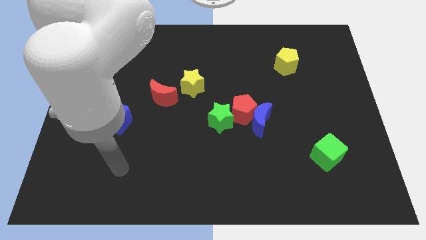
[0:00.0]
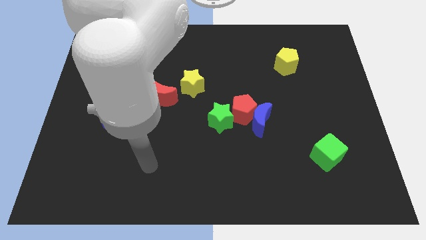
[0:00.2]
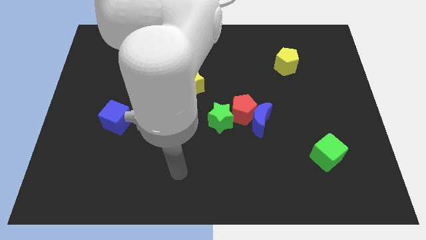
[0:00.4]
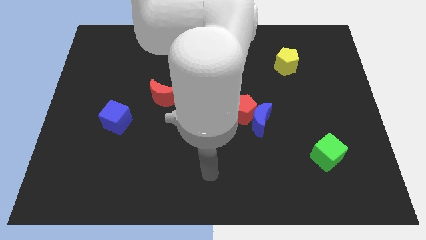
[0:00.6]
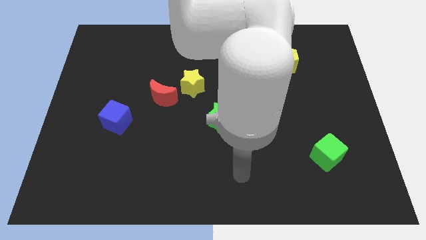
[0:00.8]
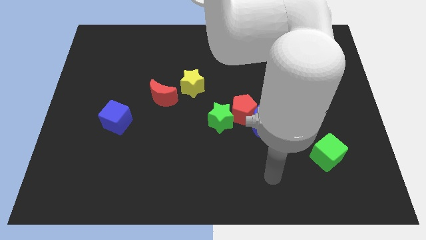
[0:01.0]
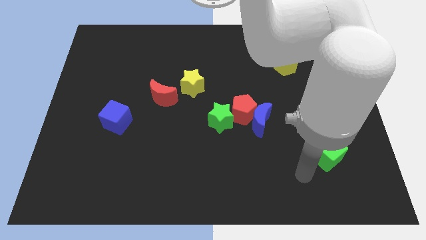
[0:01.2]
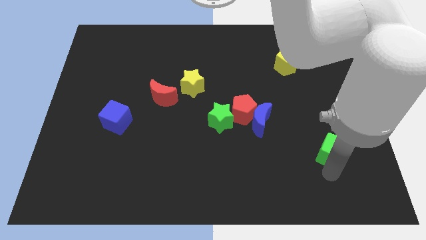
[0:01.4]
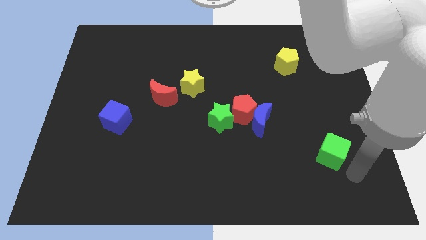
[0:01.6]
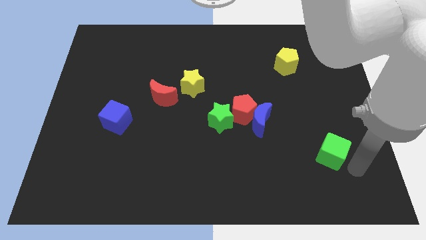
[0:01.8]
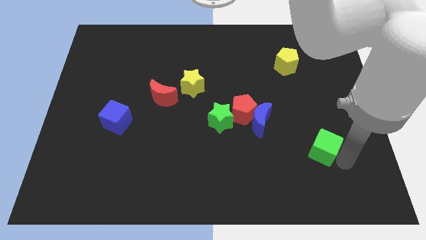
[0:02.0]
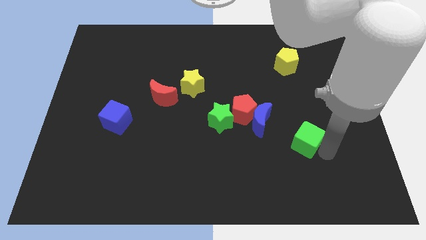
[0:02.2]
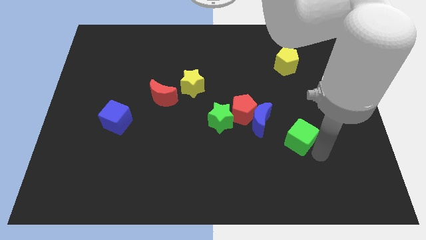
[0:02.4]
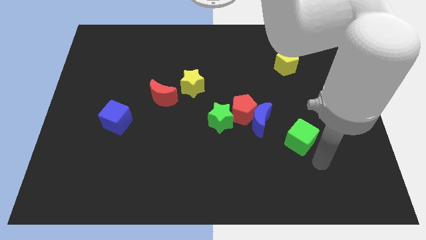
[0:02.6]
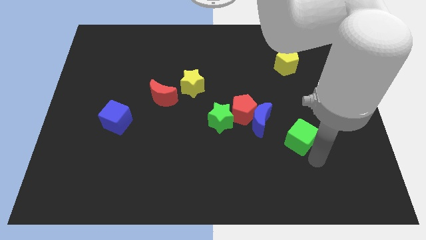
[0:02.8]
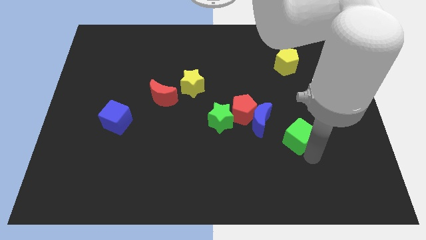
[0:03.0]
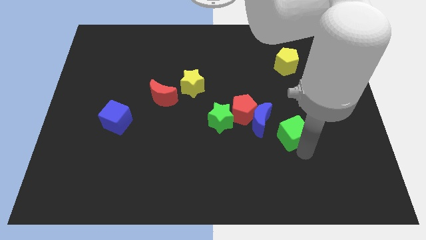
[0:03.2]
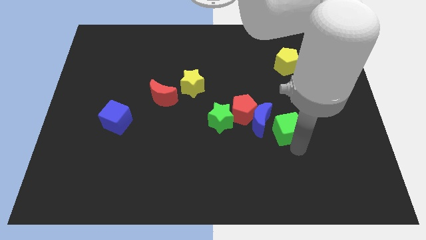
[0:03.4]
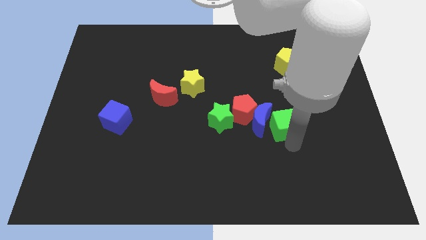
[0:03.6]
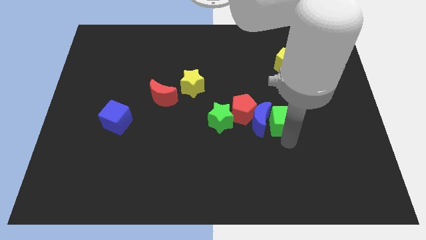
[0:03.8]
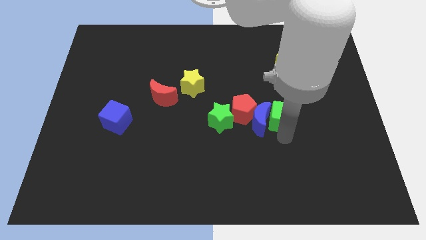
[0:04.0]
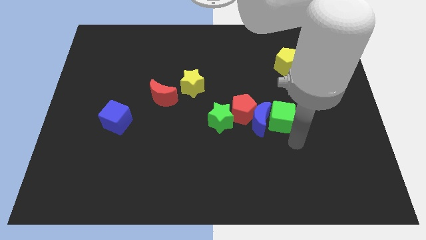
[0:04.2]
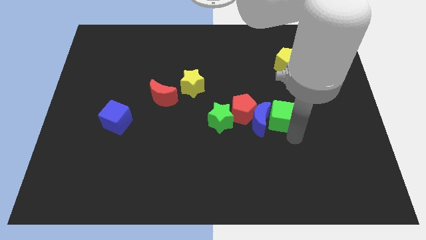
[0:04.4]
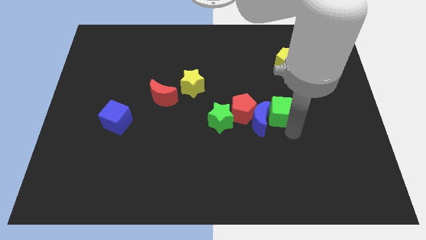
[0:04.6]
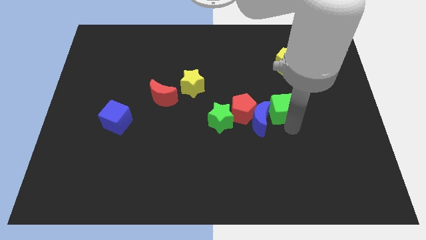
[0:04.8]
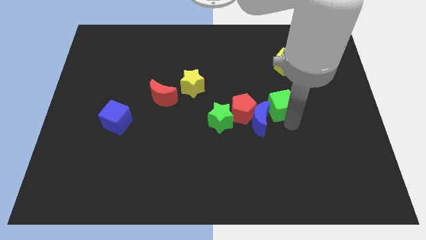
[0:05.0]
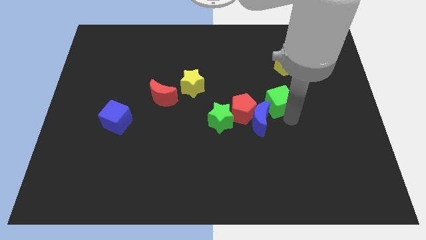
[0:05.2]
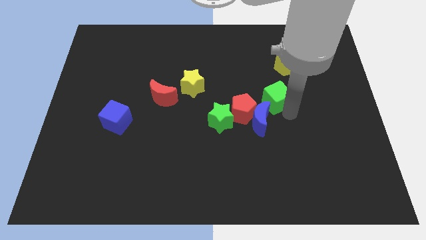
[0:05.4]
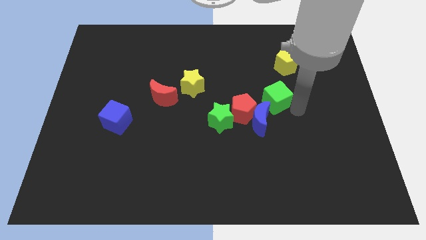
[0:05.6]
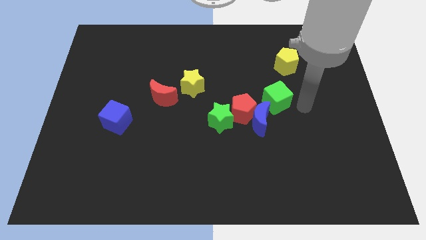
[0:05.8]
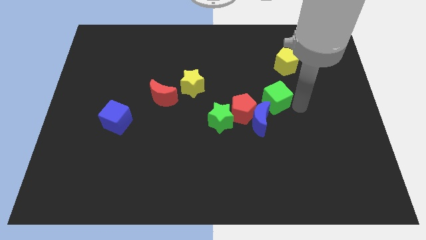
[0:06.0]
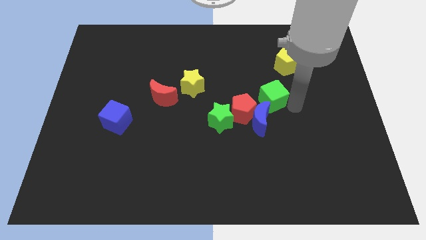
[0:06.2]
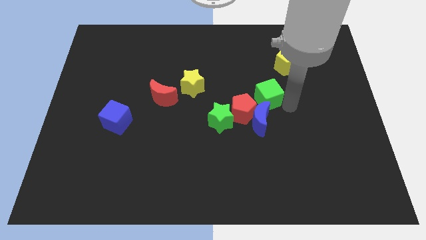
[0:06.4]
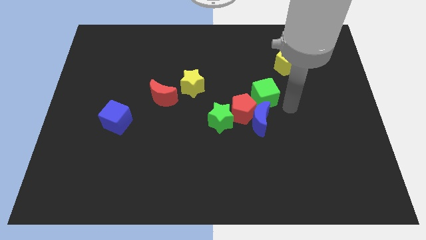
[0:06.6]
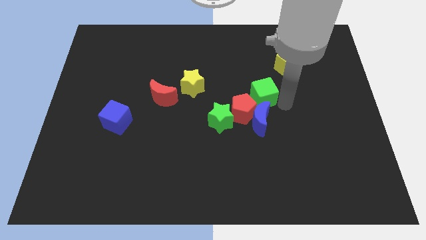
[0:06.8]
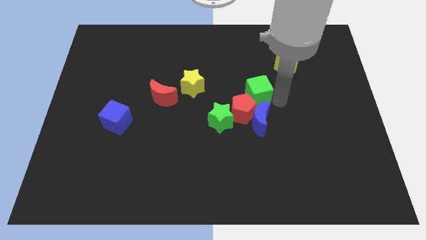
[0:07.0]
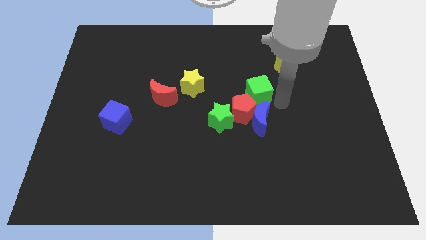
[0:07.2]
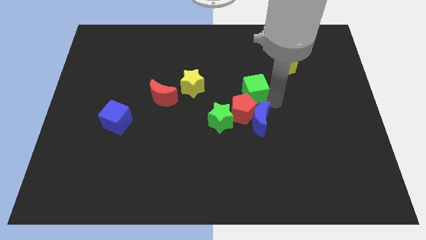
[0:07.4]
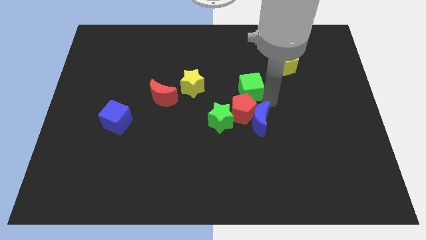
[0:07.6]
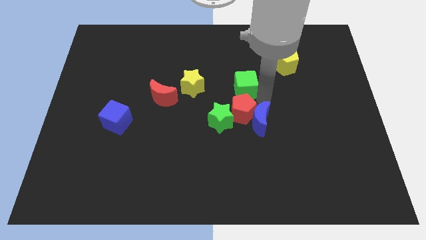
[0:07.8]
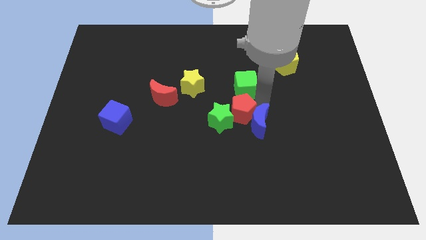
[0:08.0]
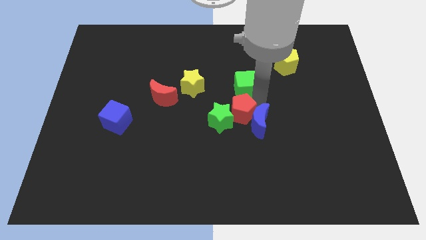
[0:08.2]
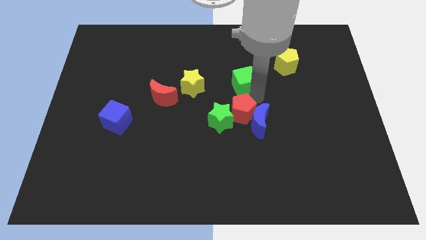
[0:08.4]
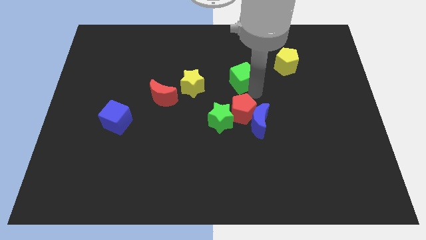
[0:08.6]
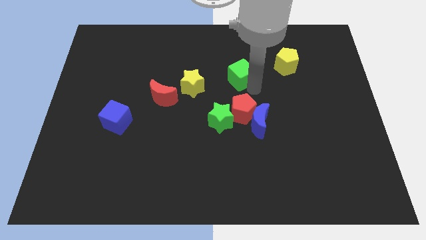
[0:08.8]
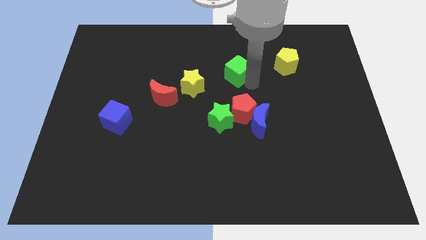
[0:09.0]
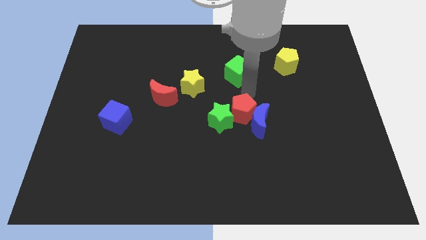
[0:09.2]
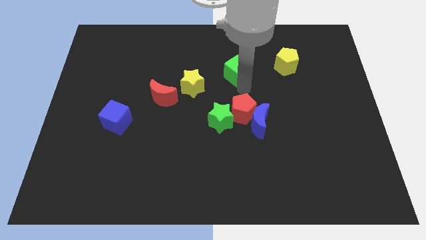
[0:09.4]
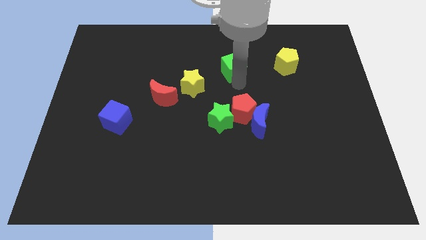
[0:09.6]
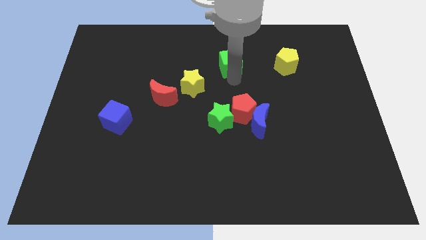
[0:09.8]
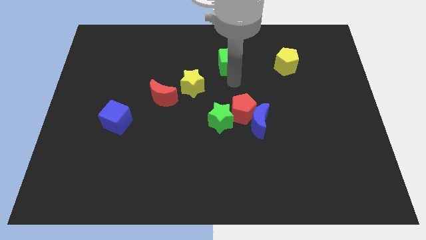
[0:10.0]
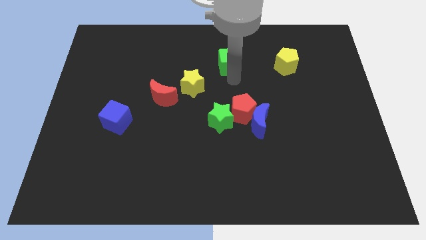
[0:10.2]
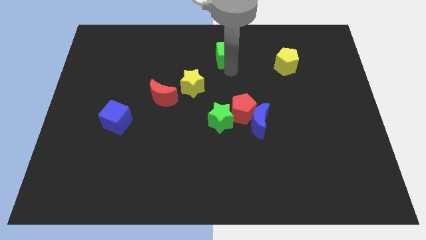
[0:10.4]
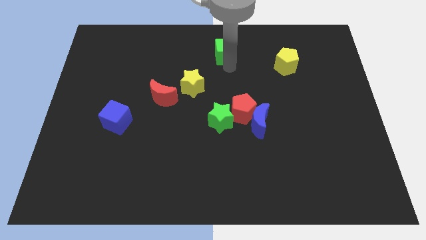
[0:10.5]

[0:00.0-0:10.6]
push the green cube to the towards your base

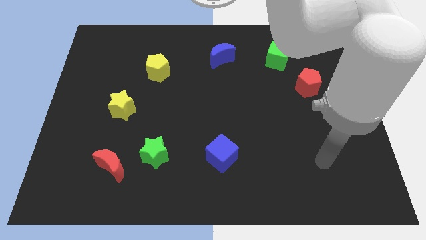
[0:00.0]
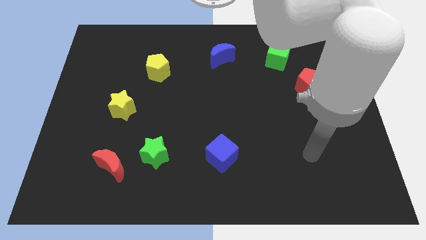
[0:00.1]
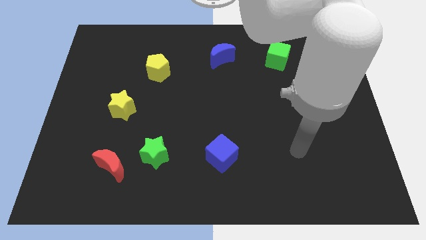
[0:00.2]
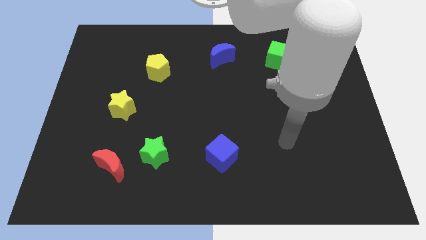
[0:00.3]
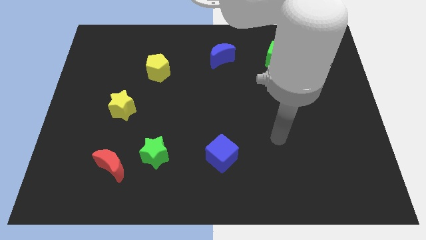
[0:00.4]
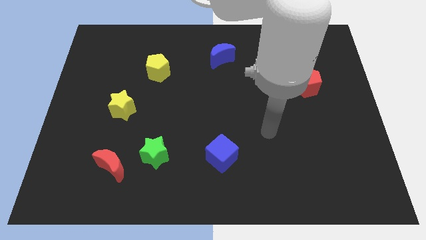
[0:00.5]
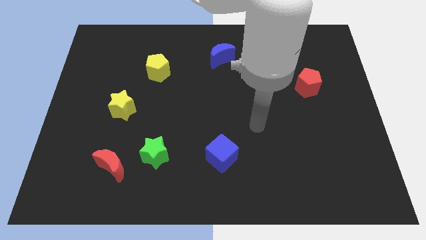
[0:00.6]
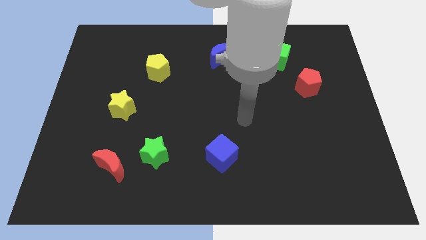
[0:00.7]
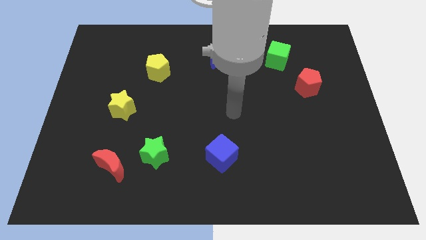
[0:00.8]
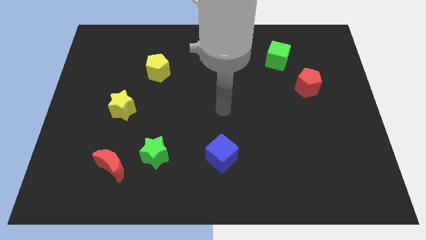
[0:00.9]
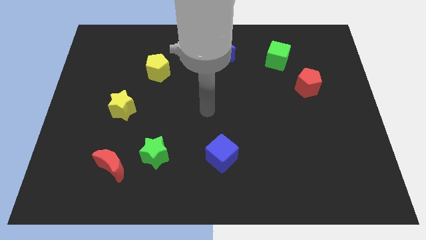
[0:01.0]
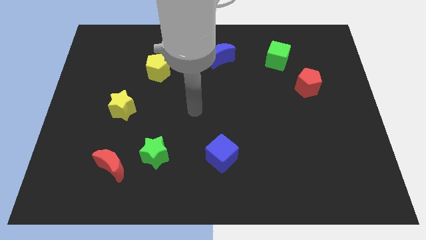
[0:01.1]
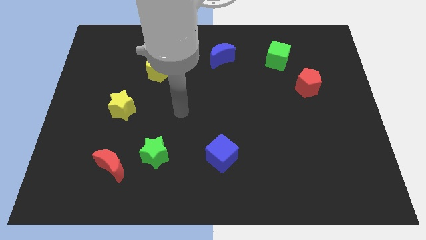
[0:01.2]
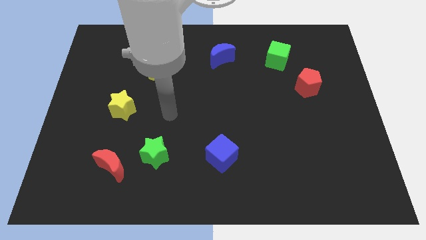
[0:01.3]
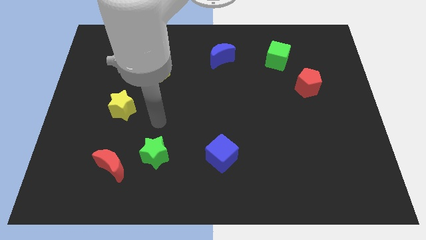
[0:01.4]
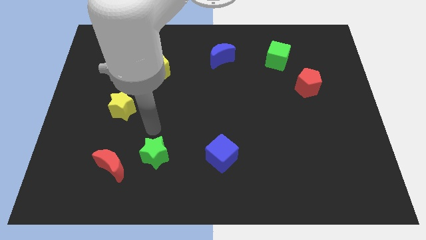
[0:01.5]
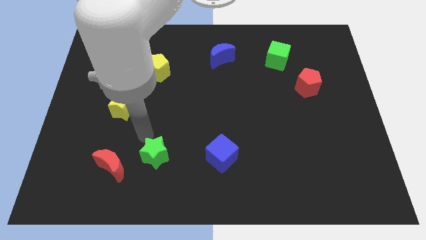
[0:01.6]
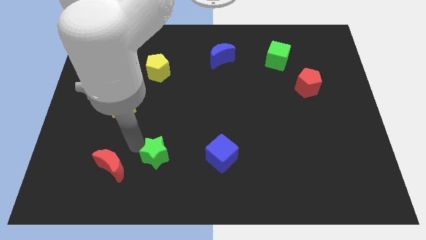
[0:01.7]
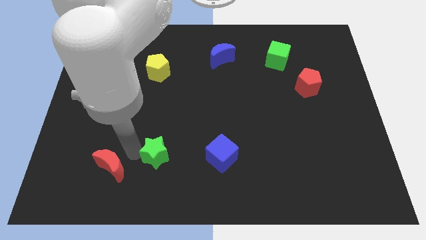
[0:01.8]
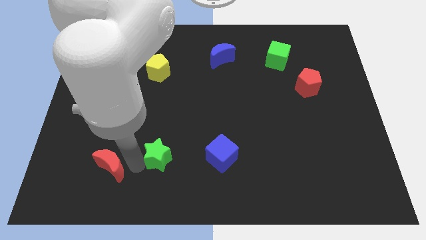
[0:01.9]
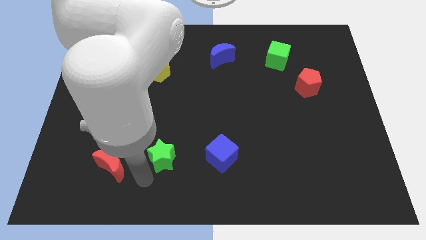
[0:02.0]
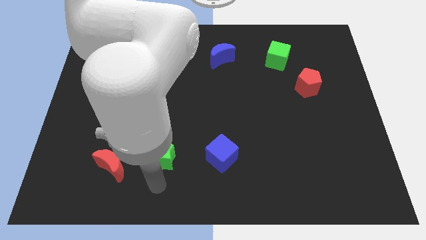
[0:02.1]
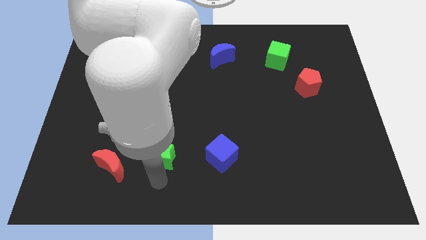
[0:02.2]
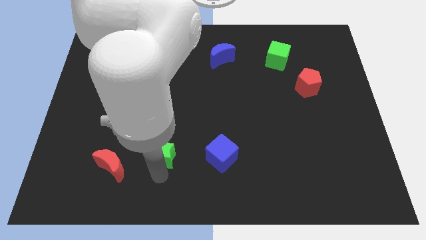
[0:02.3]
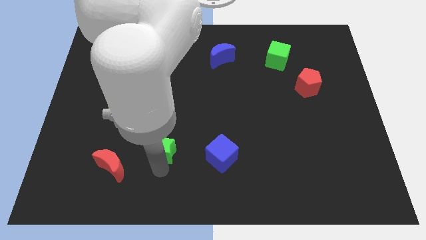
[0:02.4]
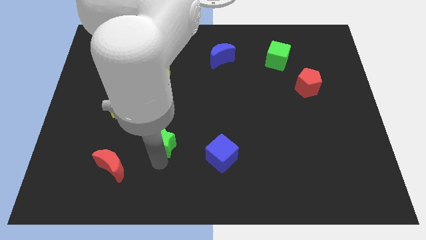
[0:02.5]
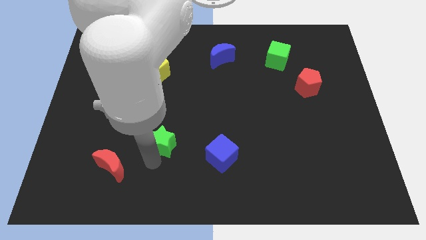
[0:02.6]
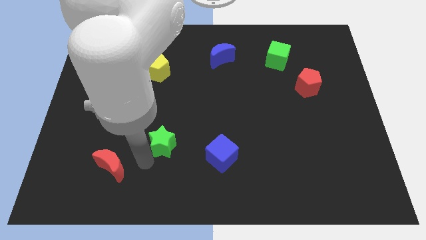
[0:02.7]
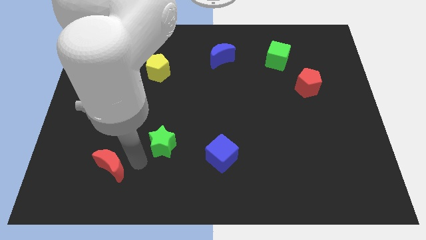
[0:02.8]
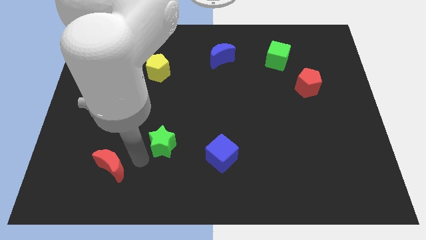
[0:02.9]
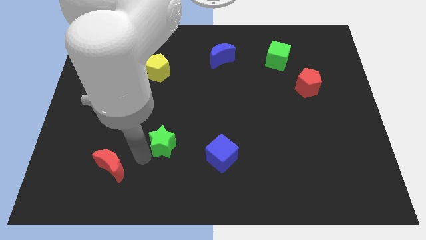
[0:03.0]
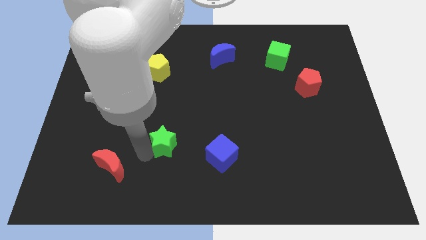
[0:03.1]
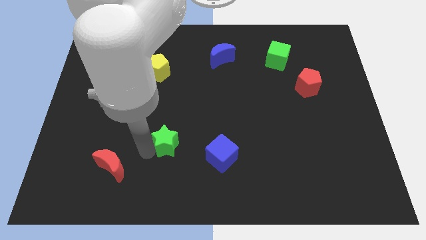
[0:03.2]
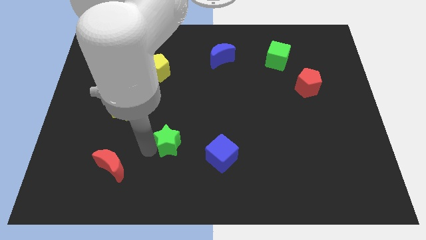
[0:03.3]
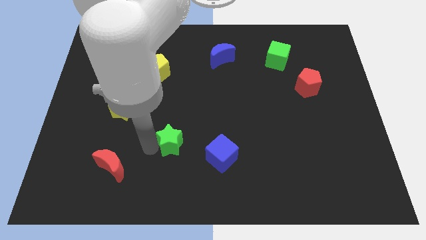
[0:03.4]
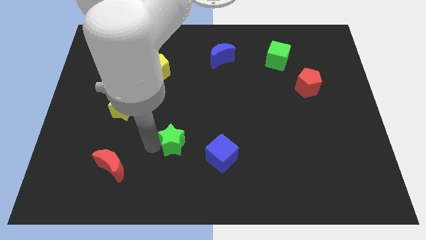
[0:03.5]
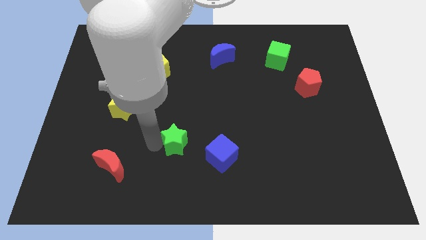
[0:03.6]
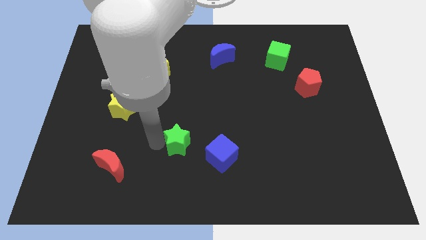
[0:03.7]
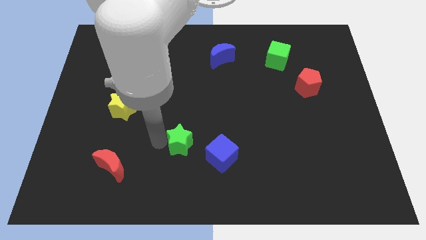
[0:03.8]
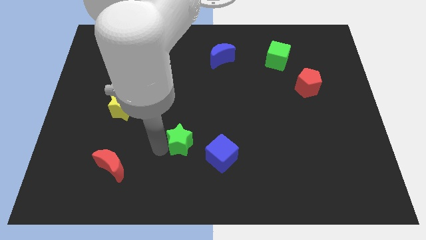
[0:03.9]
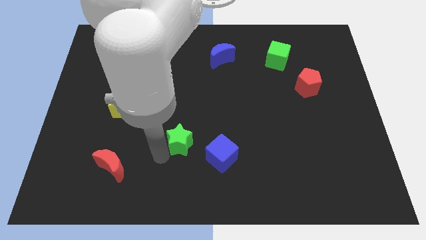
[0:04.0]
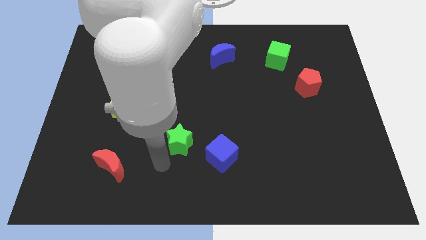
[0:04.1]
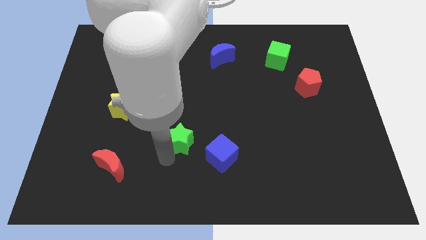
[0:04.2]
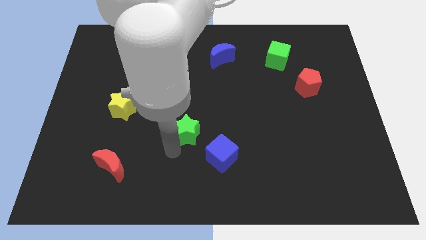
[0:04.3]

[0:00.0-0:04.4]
push the green star to the middle of the board
